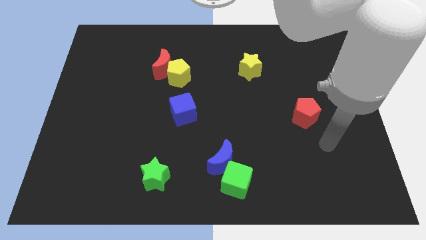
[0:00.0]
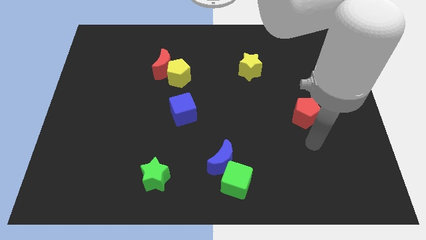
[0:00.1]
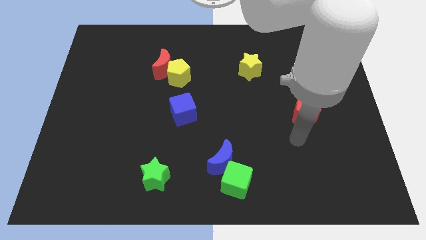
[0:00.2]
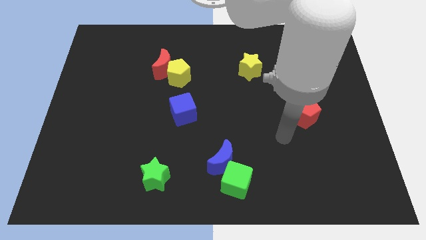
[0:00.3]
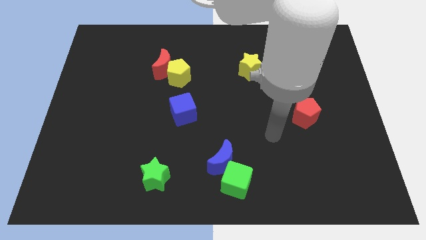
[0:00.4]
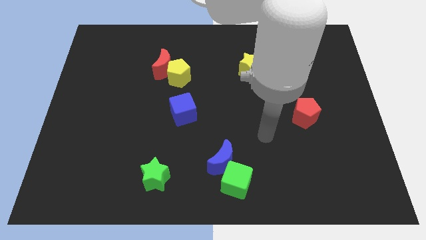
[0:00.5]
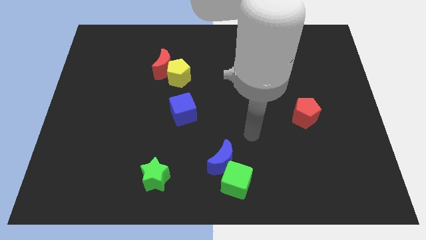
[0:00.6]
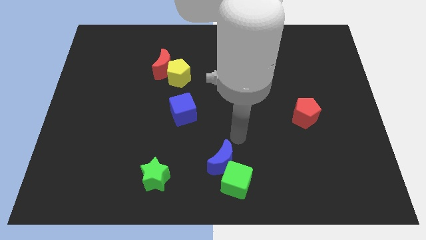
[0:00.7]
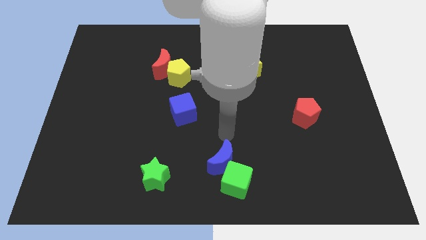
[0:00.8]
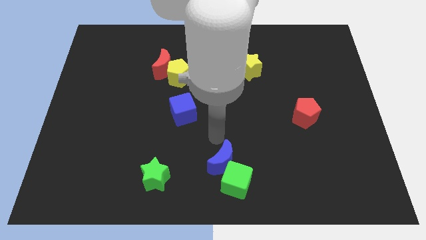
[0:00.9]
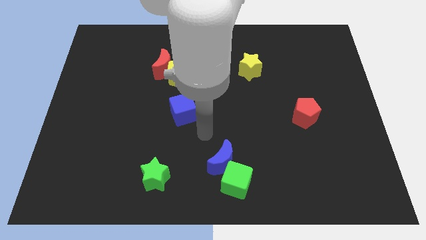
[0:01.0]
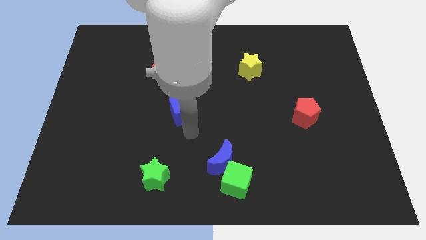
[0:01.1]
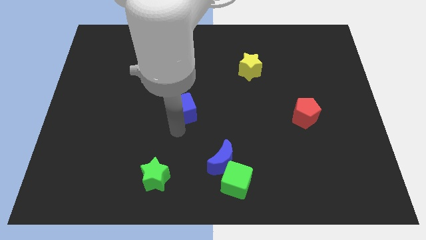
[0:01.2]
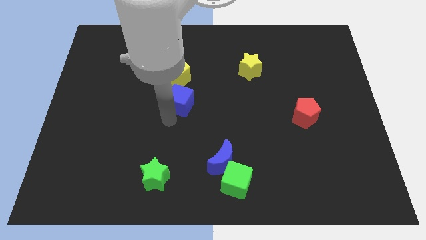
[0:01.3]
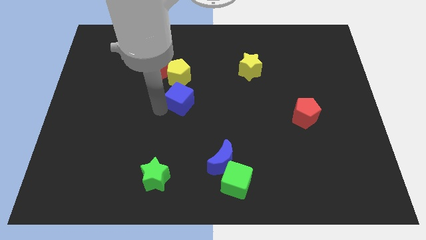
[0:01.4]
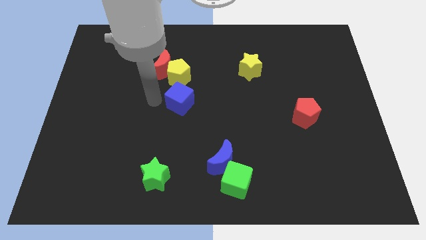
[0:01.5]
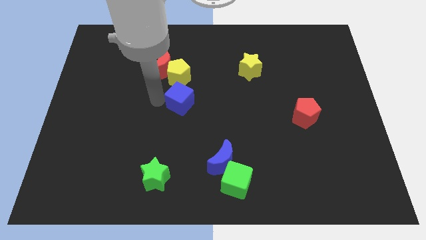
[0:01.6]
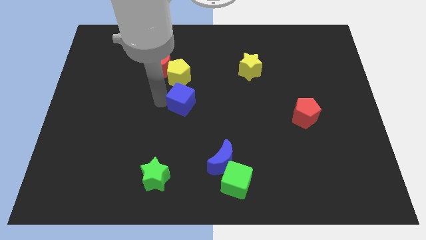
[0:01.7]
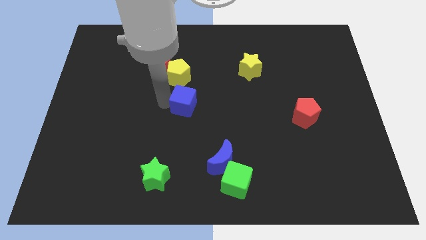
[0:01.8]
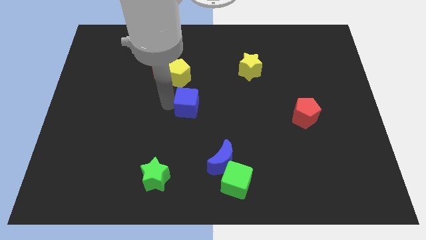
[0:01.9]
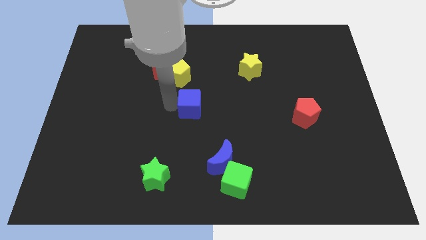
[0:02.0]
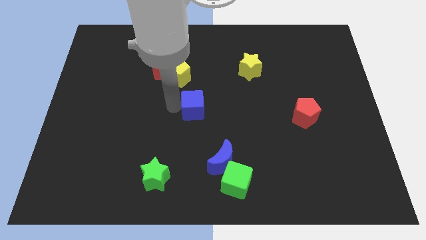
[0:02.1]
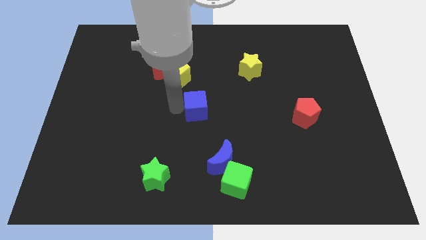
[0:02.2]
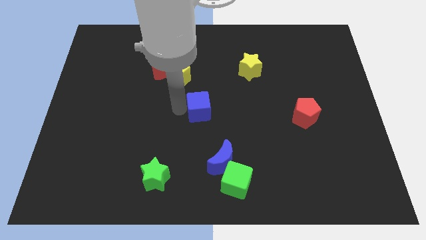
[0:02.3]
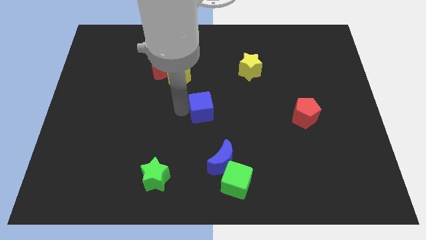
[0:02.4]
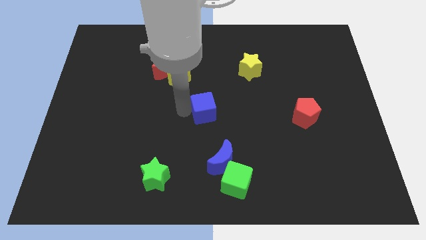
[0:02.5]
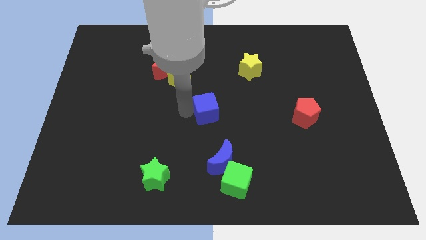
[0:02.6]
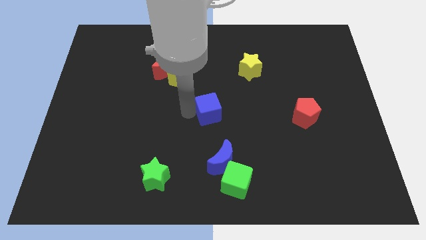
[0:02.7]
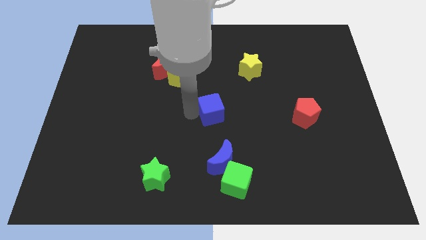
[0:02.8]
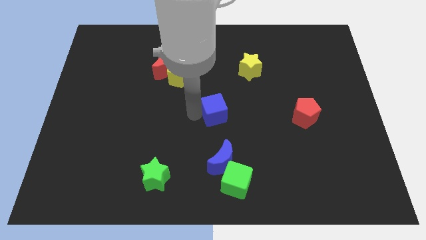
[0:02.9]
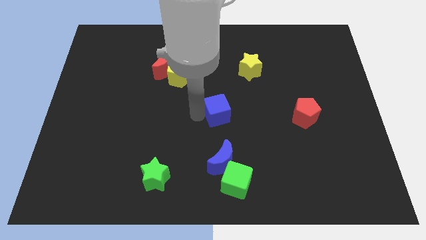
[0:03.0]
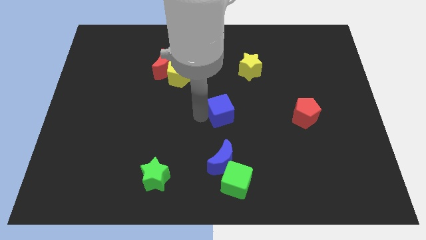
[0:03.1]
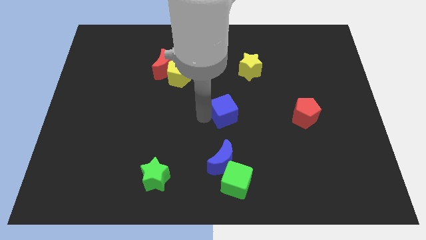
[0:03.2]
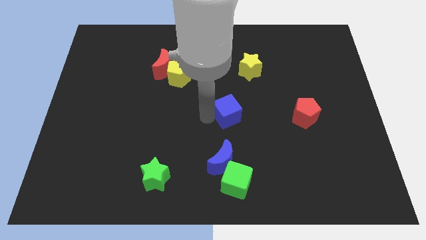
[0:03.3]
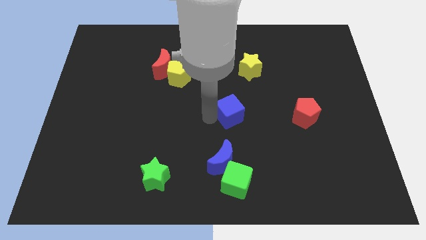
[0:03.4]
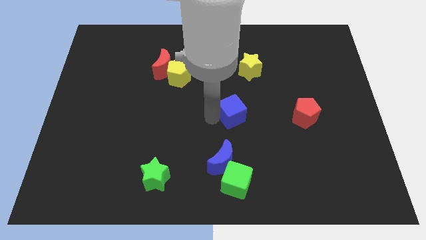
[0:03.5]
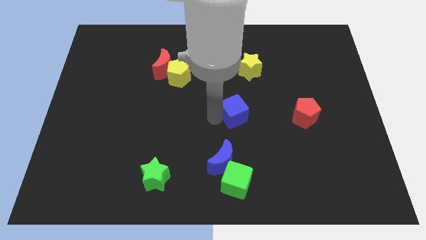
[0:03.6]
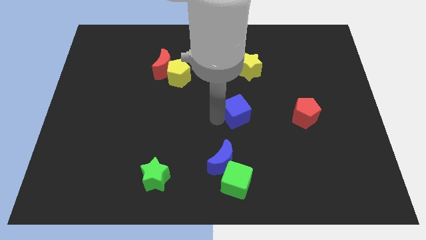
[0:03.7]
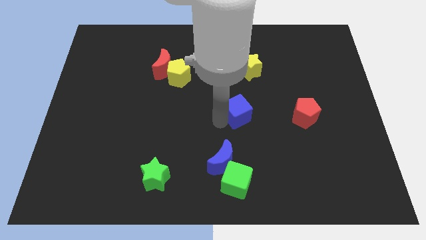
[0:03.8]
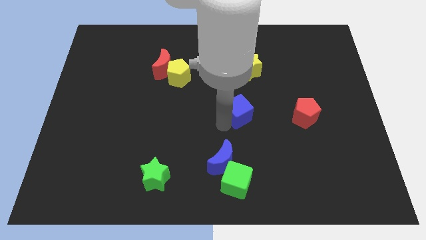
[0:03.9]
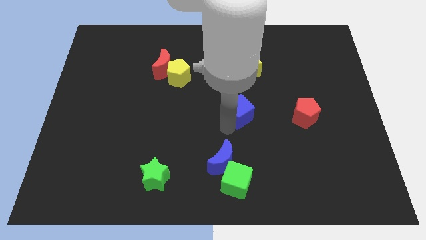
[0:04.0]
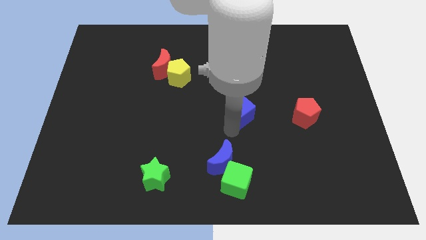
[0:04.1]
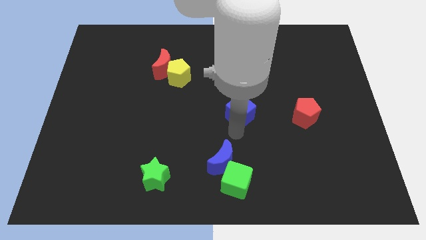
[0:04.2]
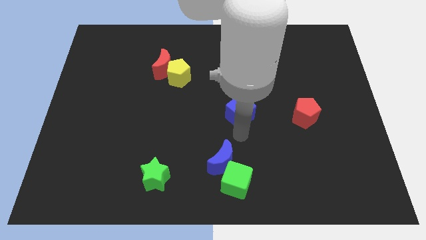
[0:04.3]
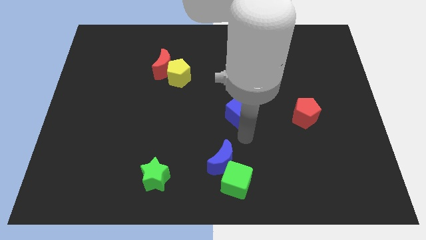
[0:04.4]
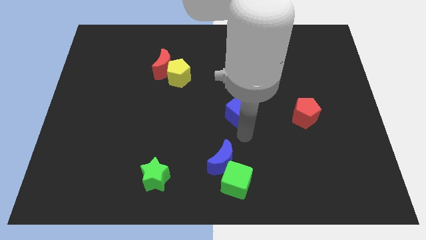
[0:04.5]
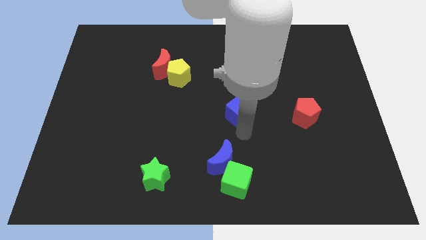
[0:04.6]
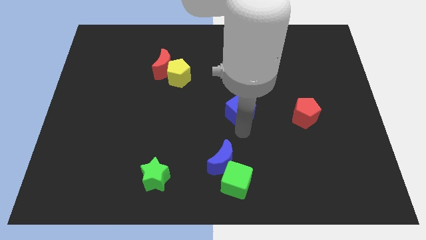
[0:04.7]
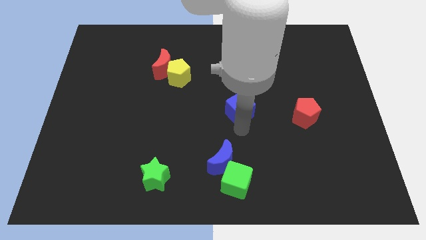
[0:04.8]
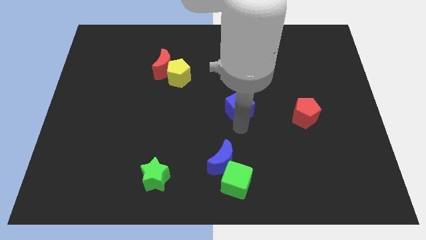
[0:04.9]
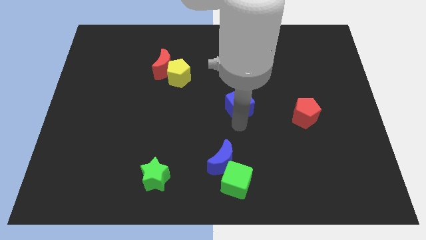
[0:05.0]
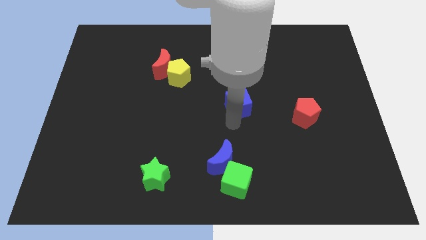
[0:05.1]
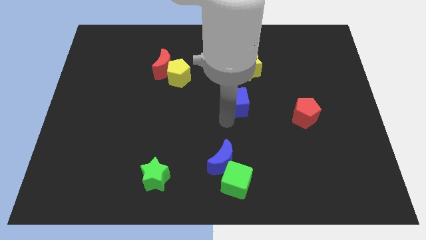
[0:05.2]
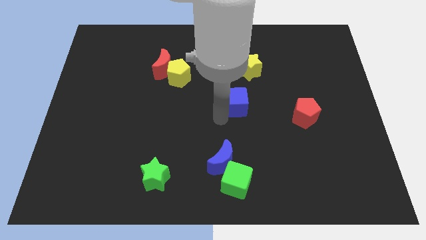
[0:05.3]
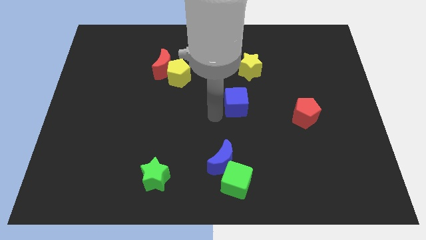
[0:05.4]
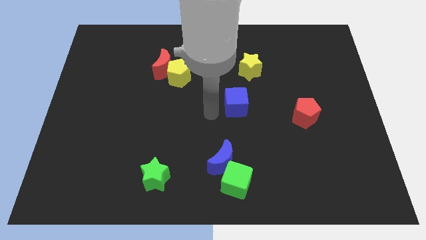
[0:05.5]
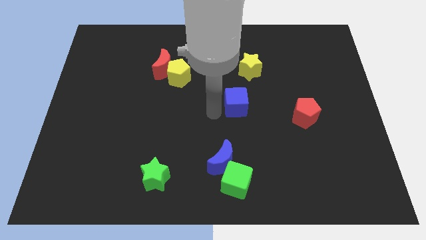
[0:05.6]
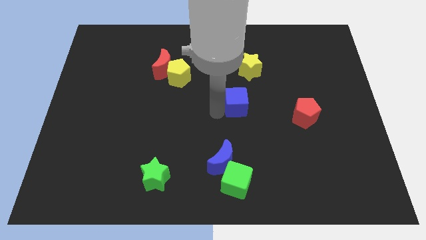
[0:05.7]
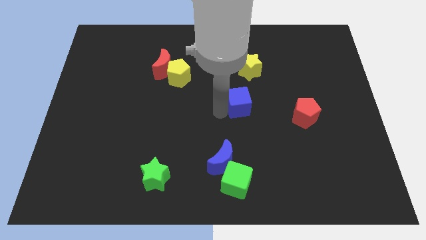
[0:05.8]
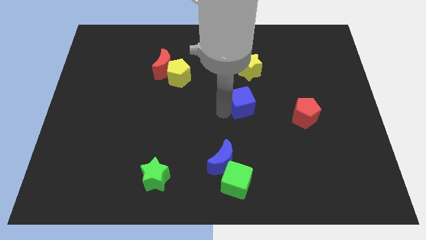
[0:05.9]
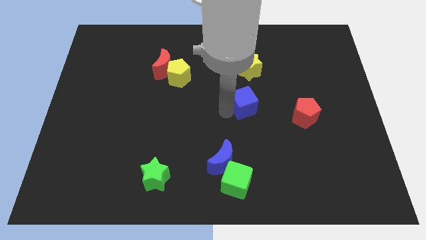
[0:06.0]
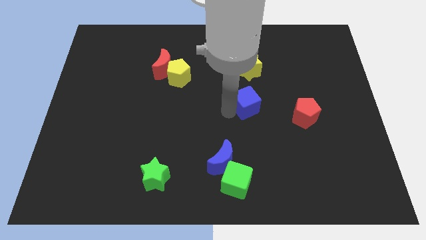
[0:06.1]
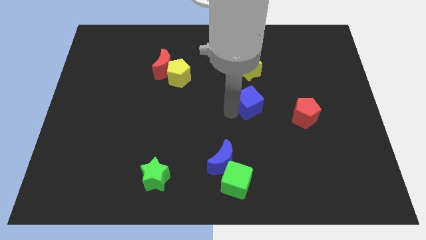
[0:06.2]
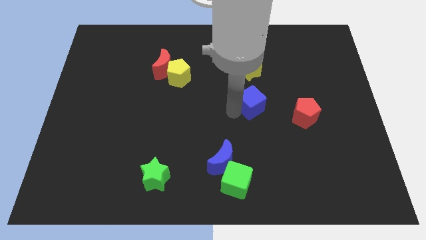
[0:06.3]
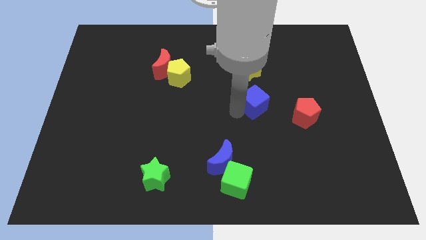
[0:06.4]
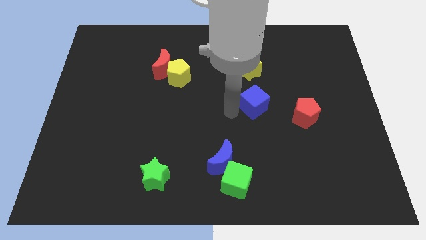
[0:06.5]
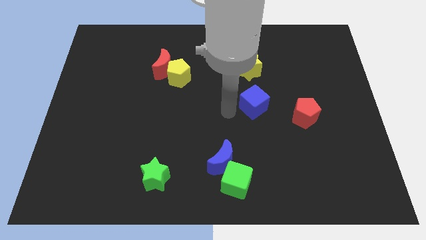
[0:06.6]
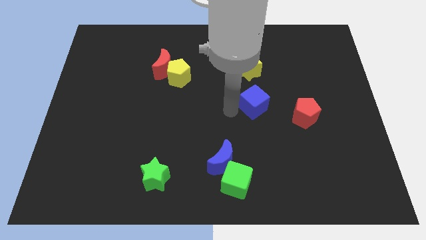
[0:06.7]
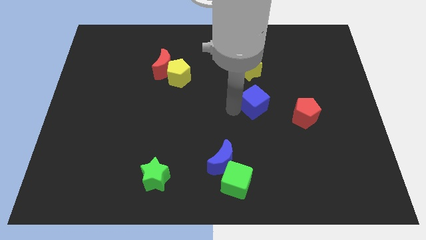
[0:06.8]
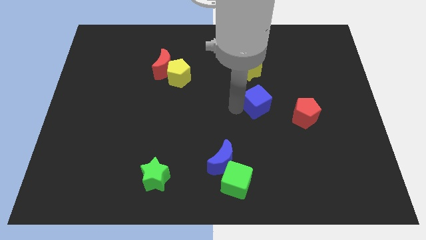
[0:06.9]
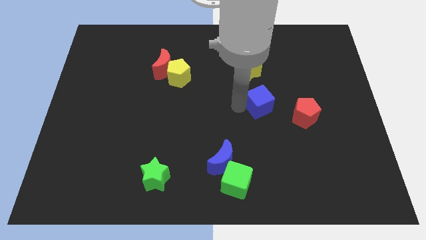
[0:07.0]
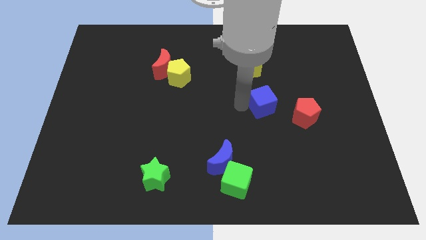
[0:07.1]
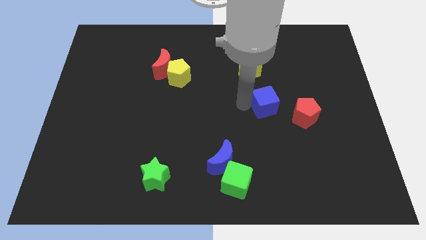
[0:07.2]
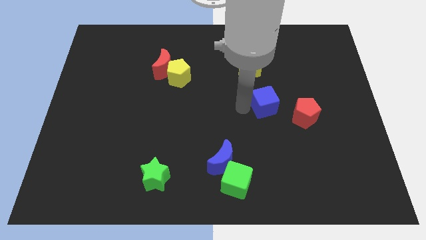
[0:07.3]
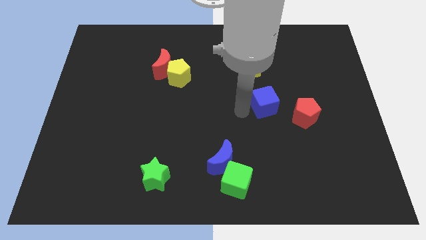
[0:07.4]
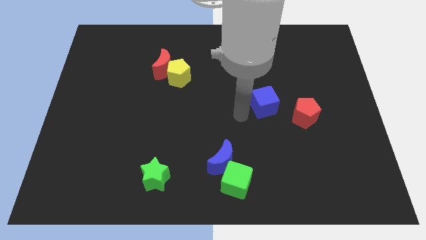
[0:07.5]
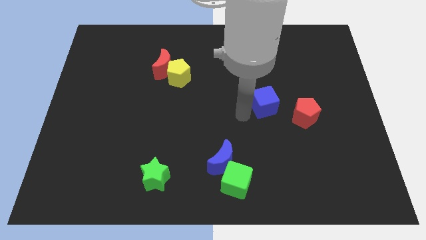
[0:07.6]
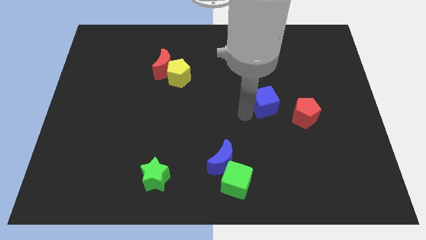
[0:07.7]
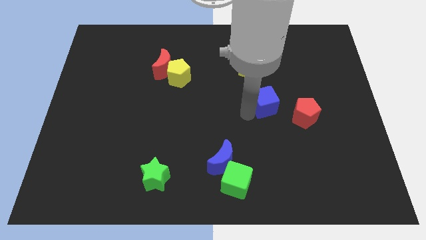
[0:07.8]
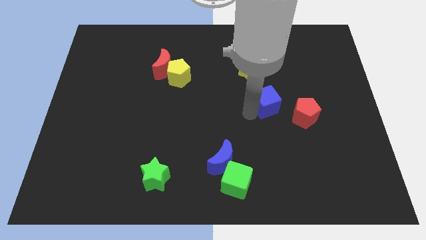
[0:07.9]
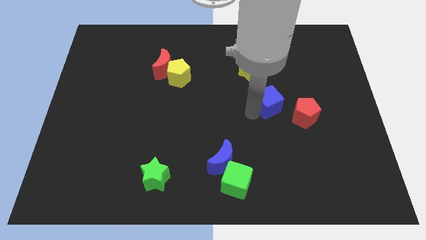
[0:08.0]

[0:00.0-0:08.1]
move the blue cube to the right
